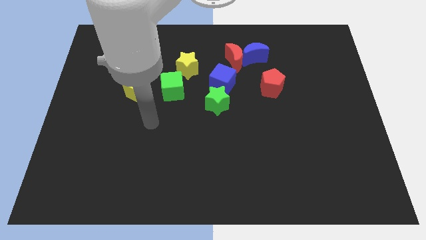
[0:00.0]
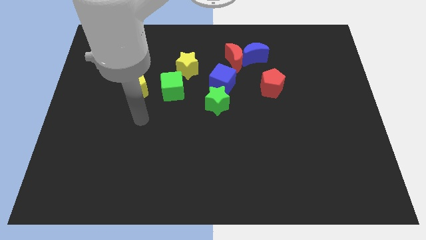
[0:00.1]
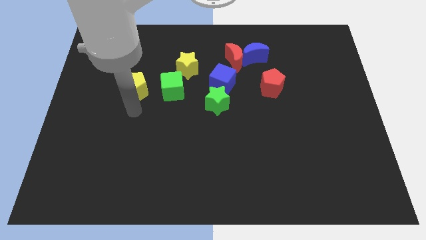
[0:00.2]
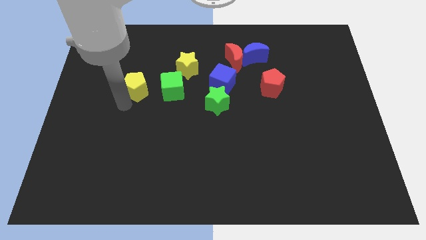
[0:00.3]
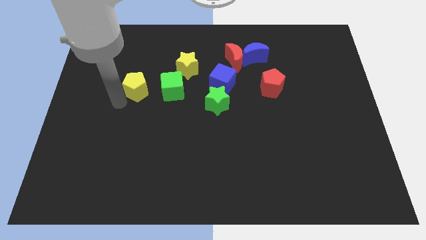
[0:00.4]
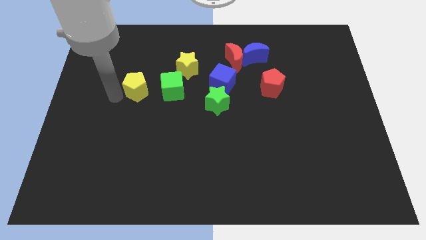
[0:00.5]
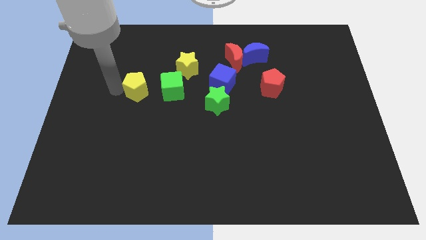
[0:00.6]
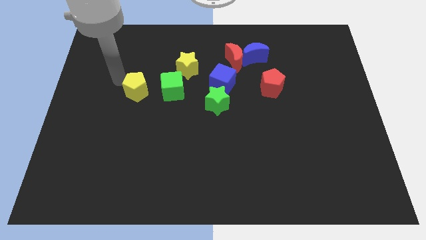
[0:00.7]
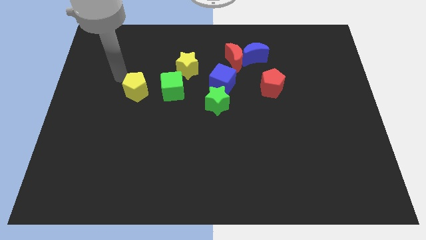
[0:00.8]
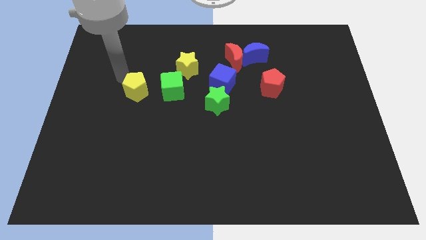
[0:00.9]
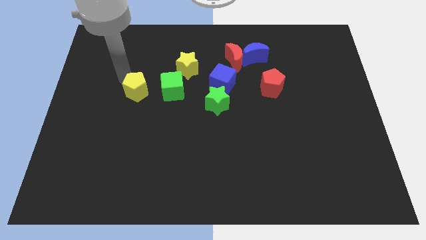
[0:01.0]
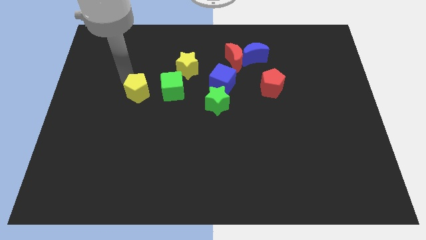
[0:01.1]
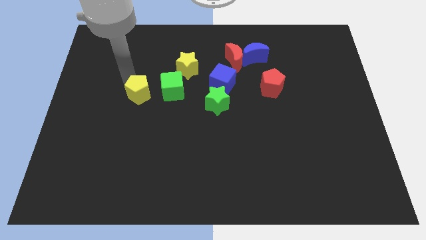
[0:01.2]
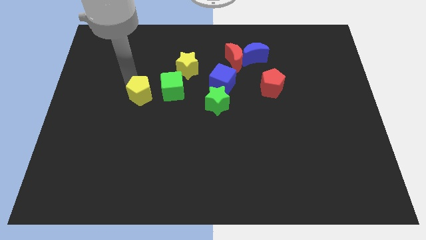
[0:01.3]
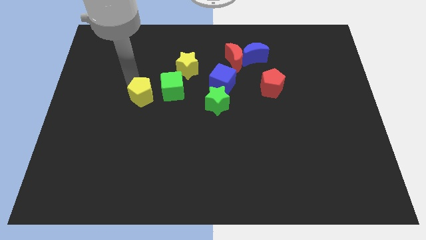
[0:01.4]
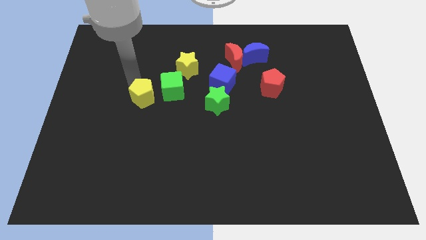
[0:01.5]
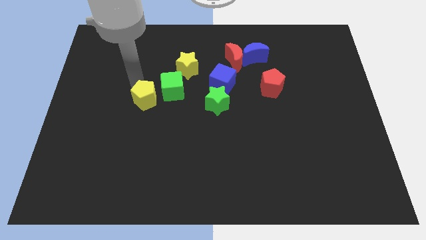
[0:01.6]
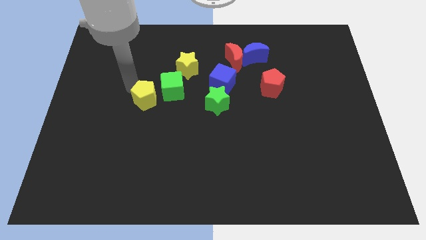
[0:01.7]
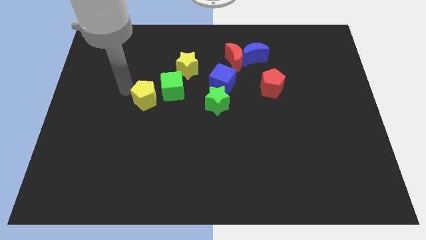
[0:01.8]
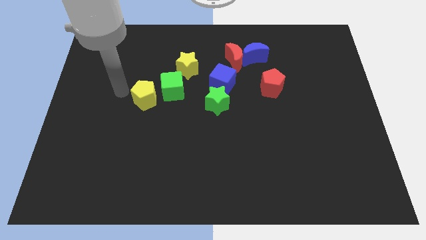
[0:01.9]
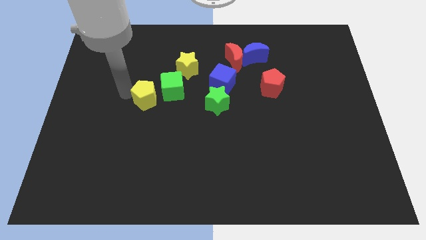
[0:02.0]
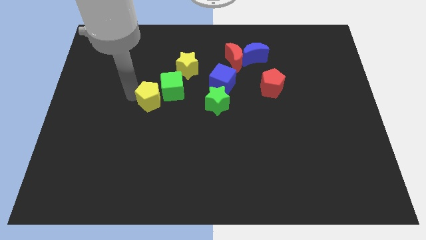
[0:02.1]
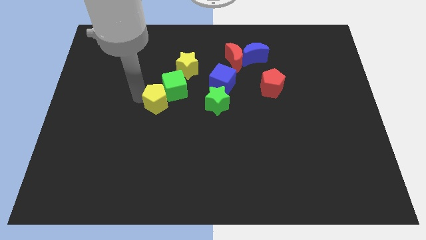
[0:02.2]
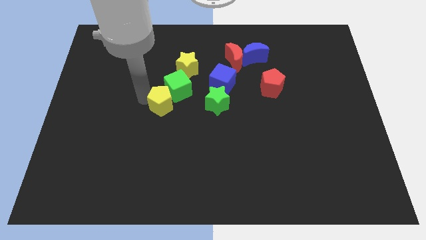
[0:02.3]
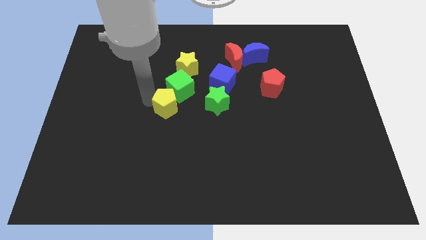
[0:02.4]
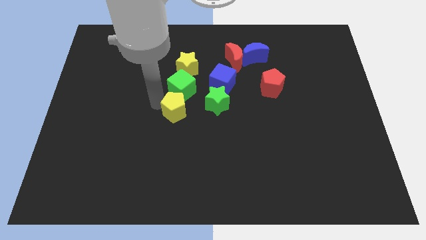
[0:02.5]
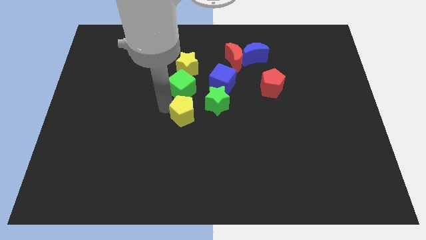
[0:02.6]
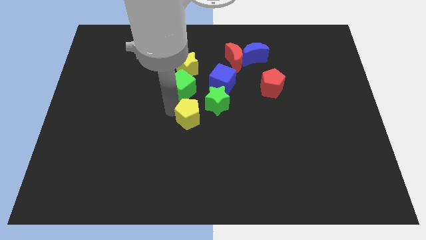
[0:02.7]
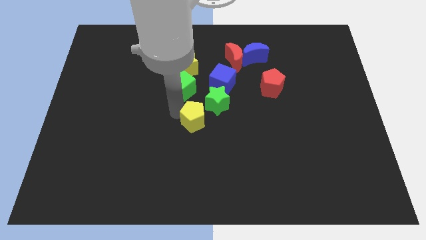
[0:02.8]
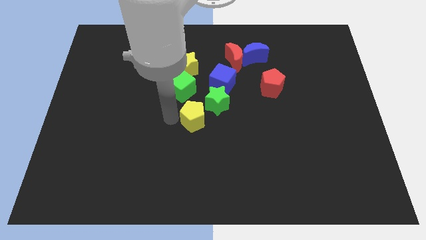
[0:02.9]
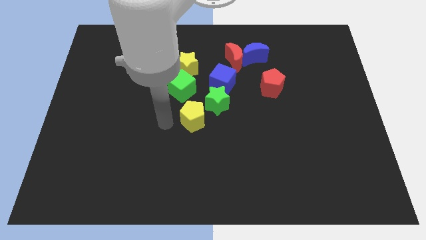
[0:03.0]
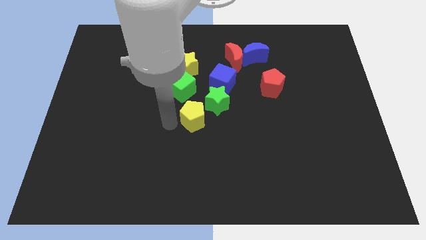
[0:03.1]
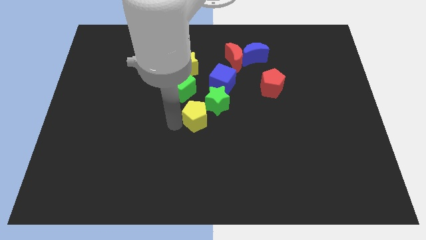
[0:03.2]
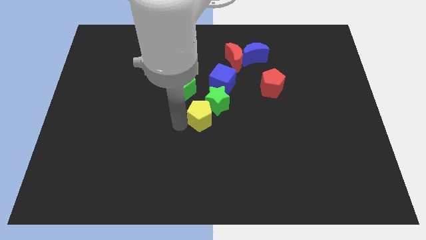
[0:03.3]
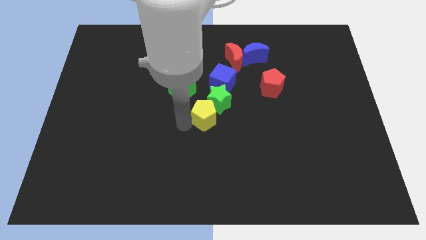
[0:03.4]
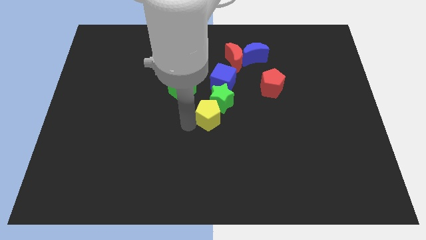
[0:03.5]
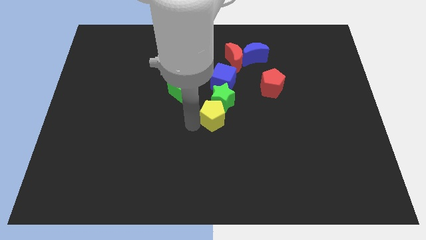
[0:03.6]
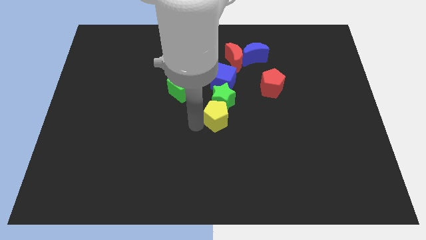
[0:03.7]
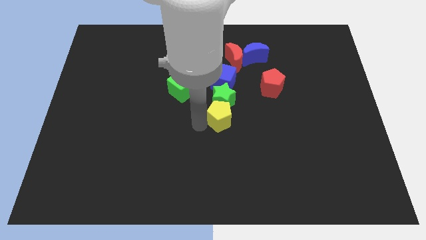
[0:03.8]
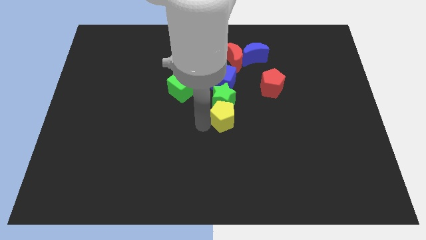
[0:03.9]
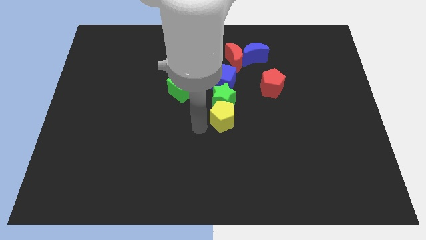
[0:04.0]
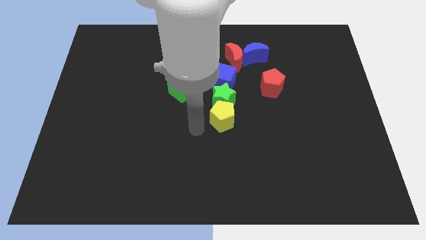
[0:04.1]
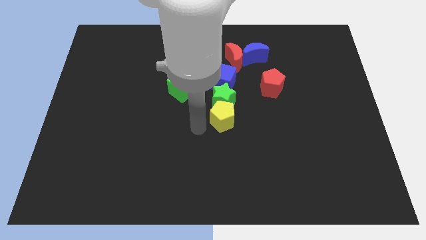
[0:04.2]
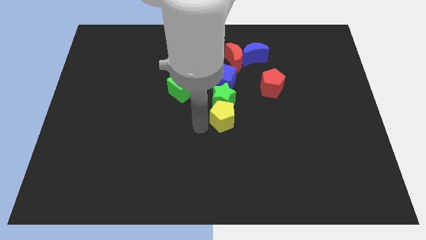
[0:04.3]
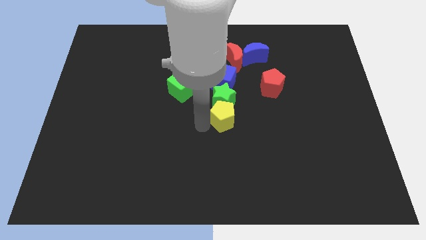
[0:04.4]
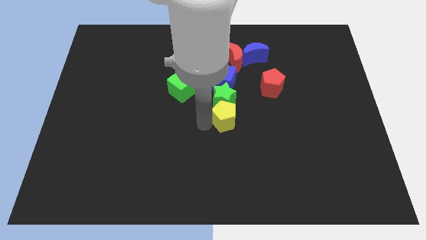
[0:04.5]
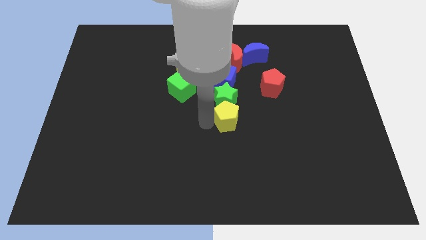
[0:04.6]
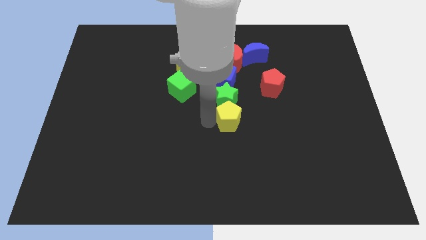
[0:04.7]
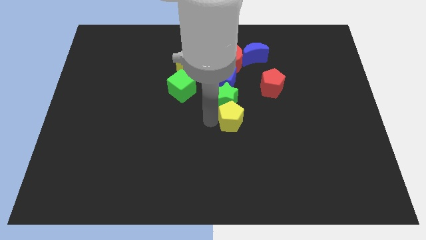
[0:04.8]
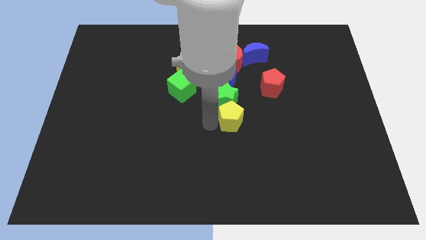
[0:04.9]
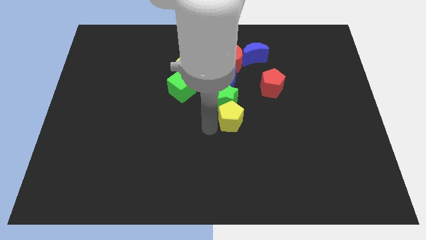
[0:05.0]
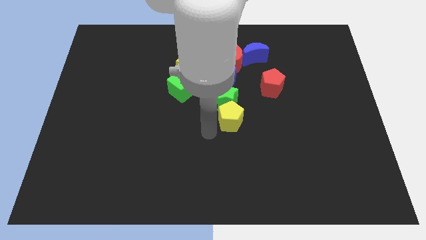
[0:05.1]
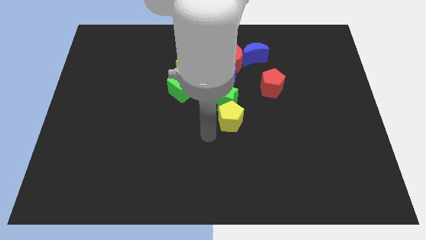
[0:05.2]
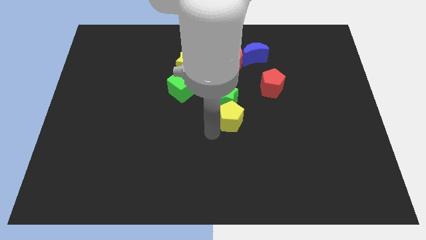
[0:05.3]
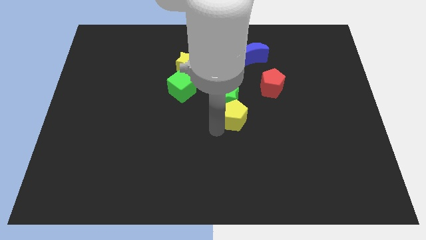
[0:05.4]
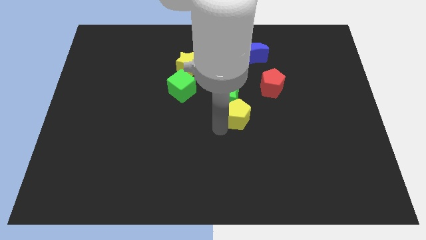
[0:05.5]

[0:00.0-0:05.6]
slide the yellow pentagon to the bottom left side of the red pentagon
